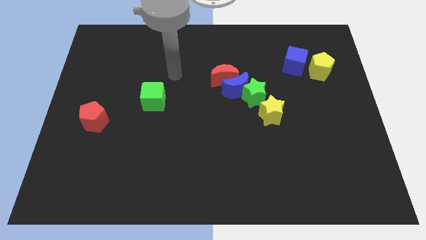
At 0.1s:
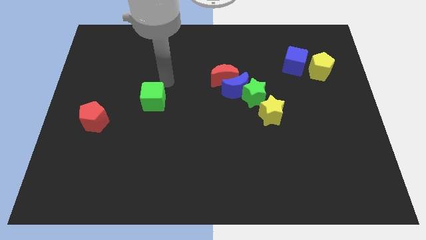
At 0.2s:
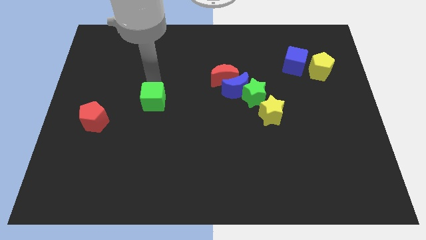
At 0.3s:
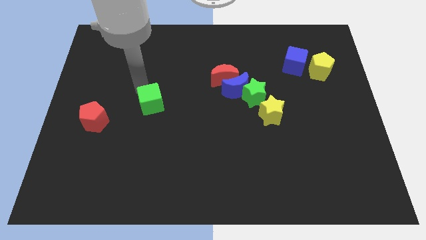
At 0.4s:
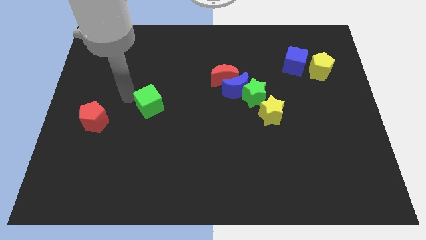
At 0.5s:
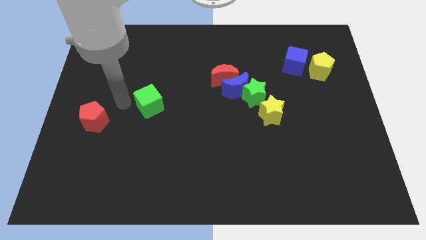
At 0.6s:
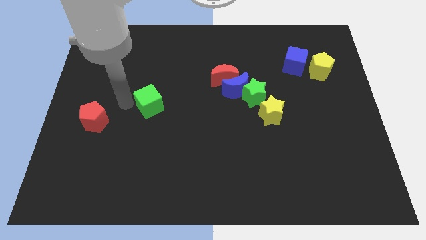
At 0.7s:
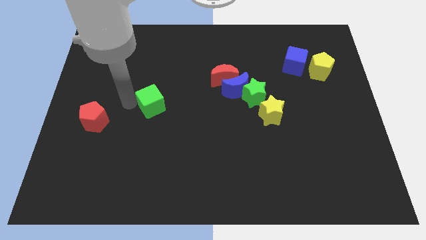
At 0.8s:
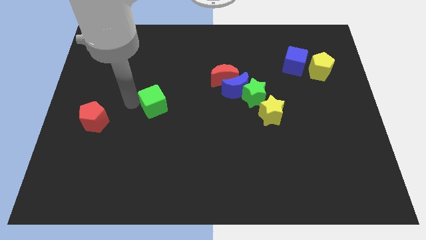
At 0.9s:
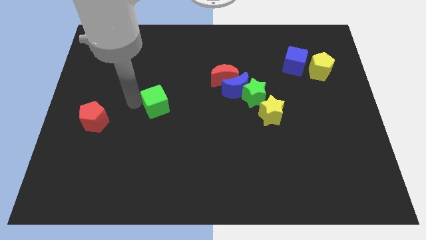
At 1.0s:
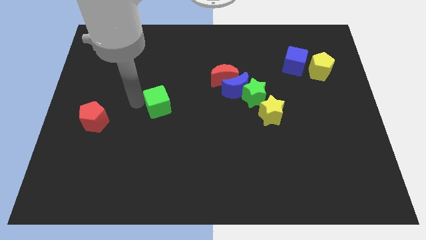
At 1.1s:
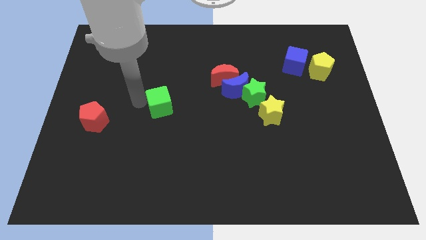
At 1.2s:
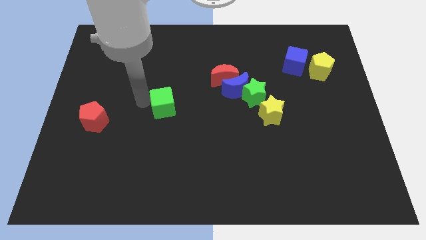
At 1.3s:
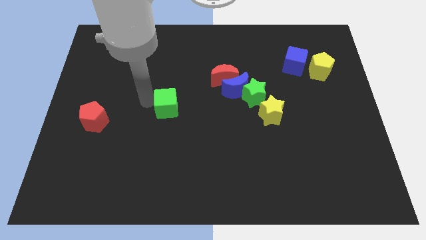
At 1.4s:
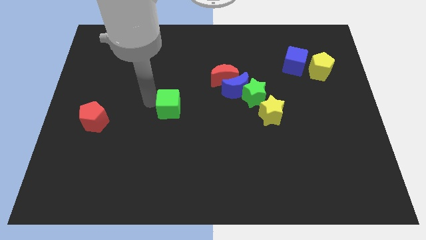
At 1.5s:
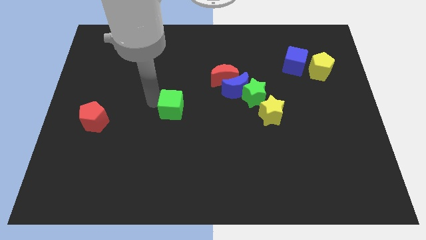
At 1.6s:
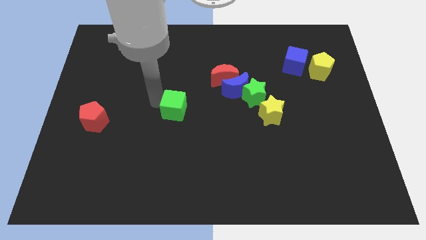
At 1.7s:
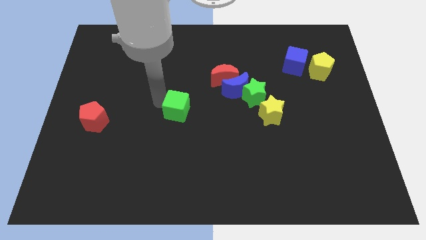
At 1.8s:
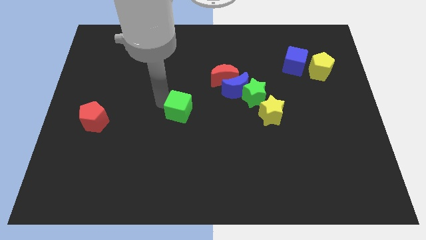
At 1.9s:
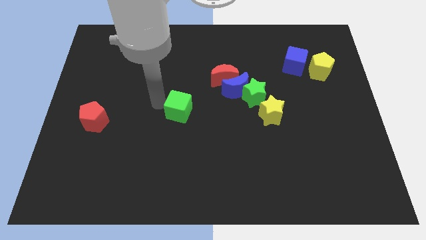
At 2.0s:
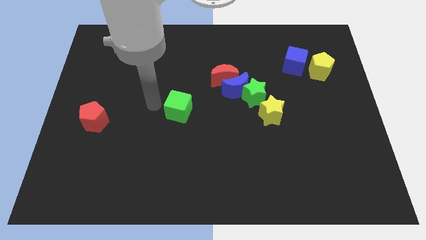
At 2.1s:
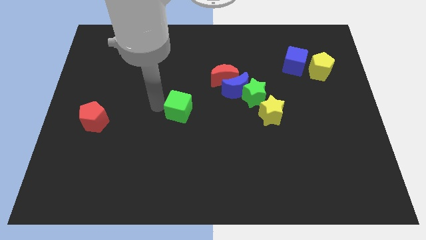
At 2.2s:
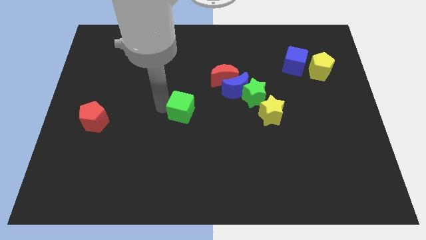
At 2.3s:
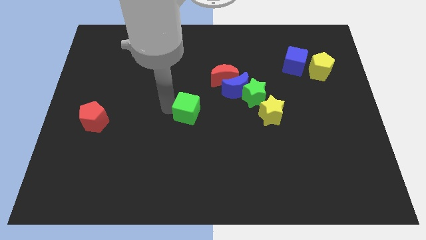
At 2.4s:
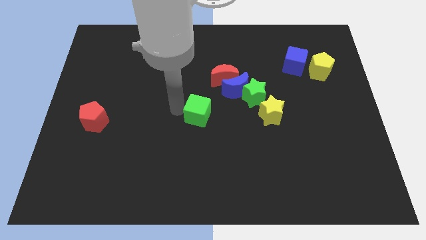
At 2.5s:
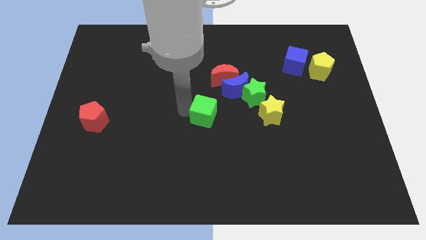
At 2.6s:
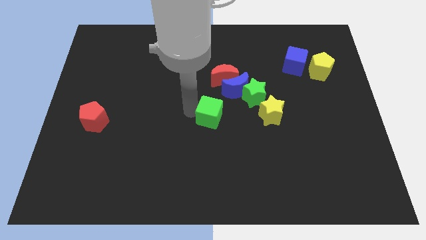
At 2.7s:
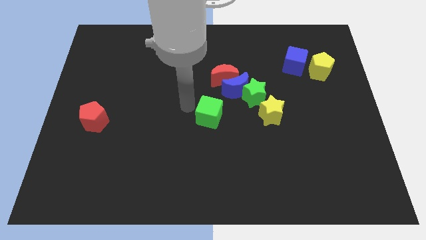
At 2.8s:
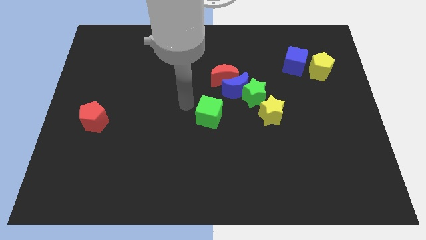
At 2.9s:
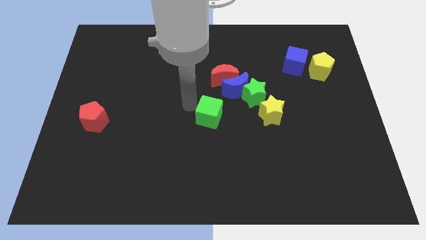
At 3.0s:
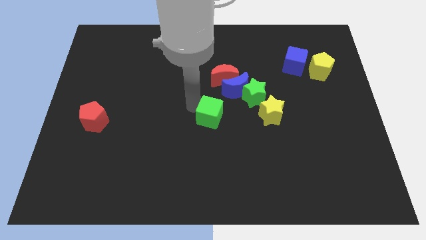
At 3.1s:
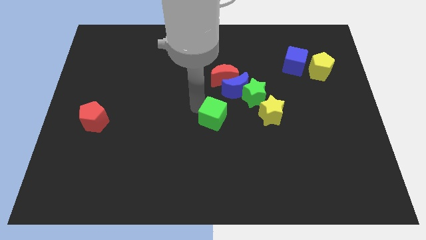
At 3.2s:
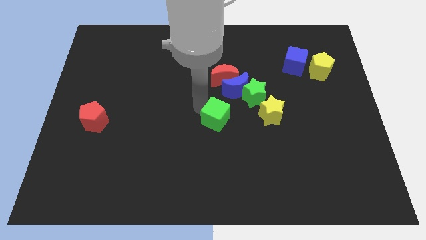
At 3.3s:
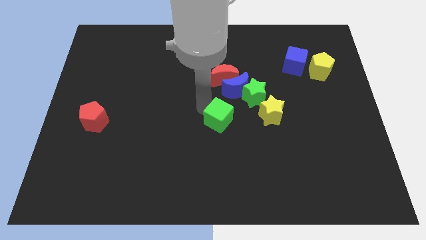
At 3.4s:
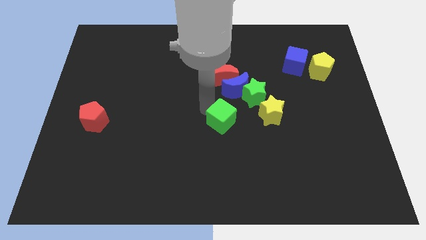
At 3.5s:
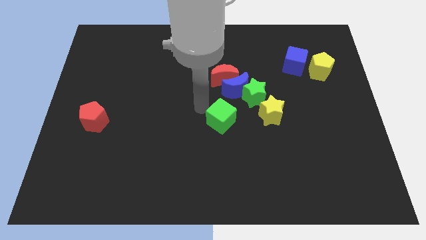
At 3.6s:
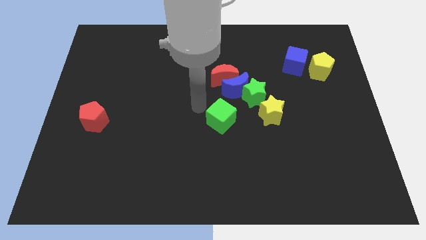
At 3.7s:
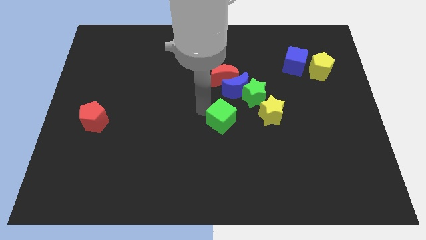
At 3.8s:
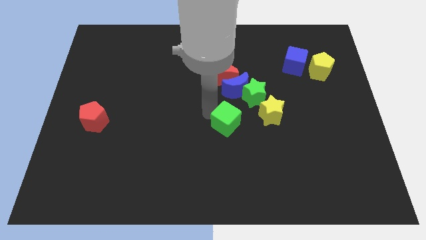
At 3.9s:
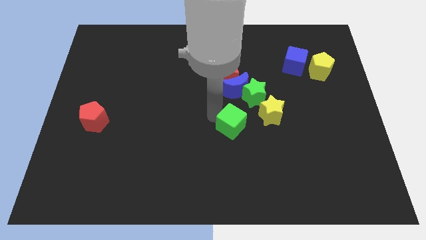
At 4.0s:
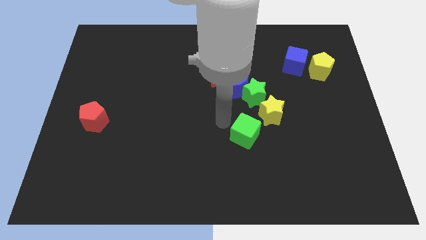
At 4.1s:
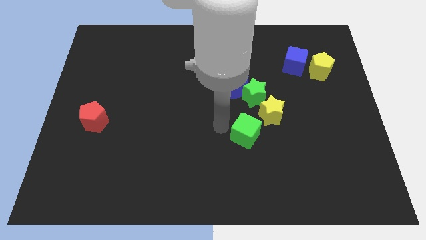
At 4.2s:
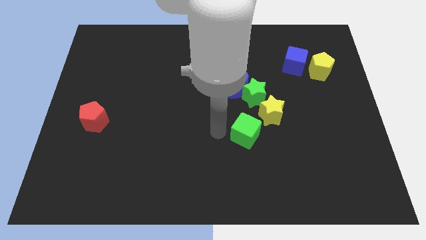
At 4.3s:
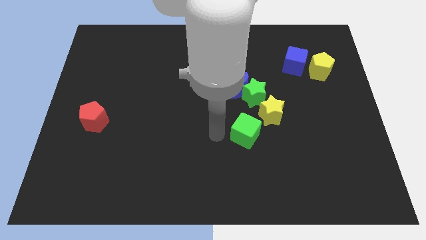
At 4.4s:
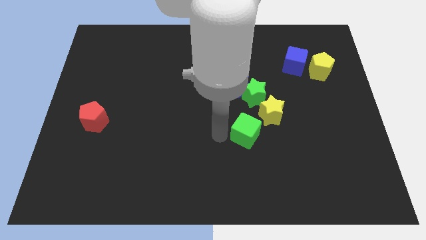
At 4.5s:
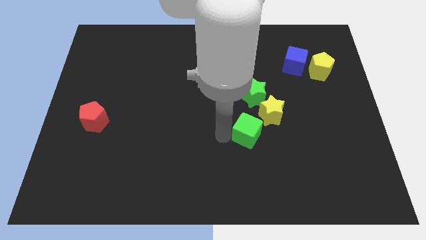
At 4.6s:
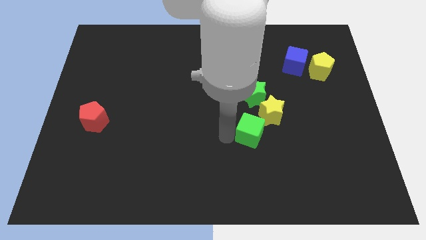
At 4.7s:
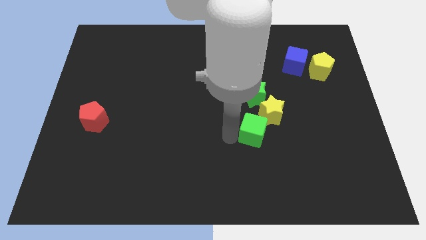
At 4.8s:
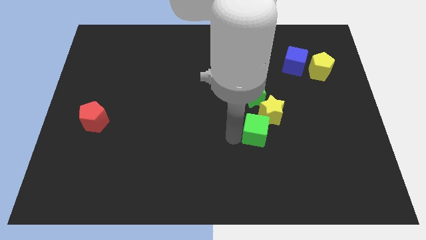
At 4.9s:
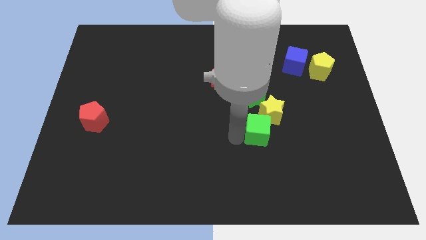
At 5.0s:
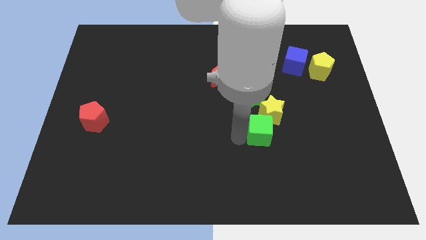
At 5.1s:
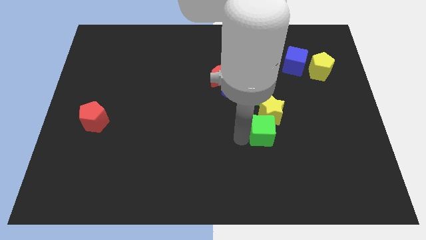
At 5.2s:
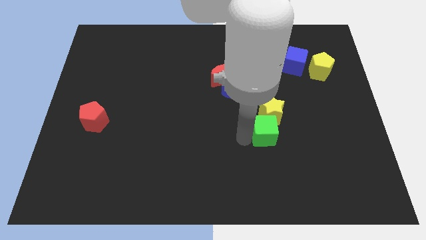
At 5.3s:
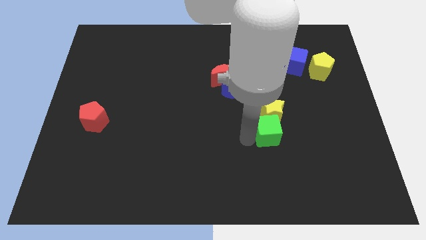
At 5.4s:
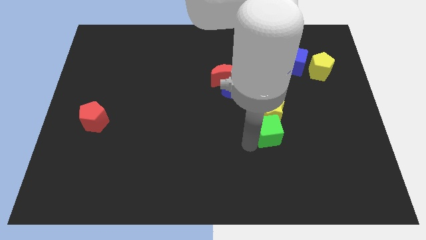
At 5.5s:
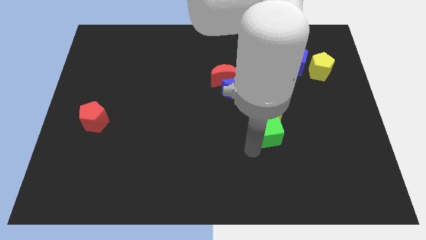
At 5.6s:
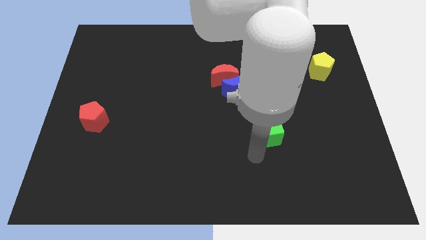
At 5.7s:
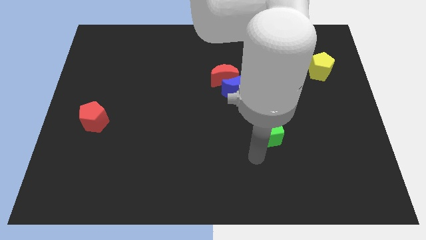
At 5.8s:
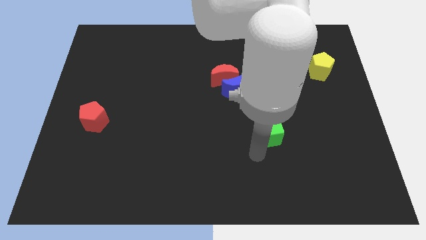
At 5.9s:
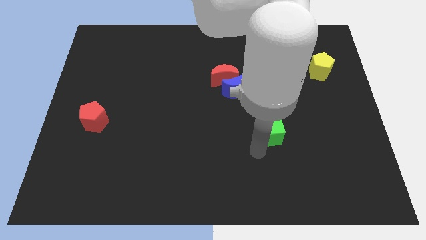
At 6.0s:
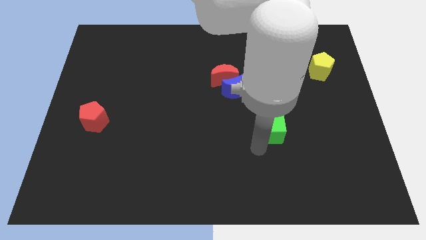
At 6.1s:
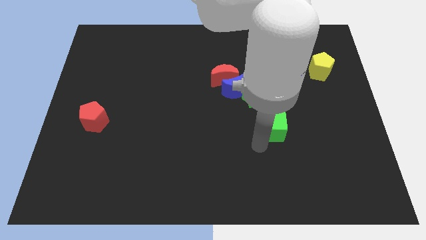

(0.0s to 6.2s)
move the green cube diagonally down and to the right of the green star

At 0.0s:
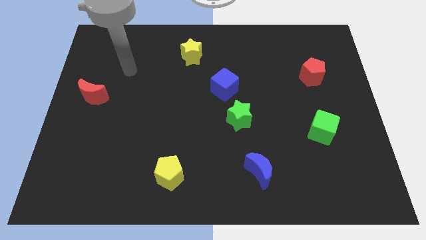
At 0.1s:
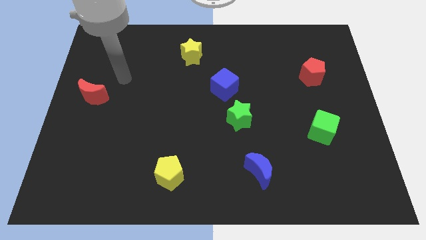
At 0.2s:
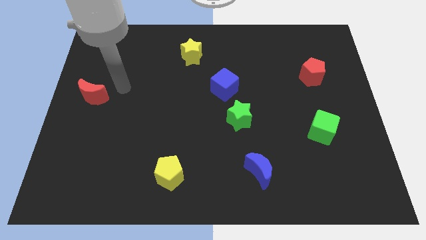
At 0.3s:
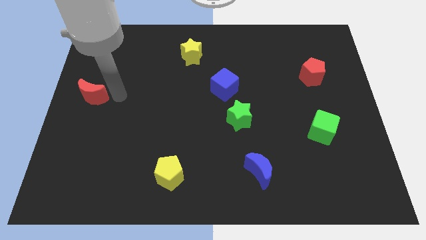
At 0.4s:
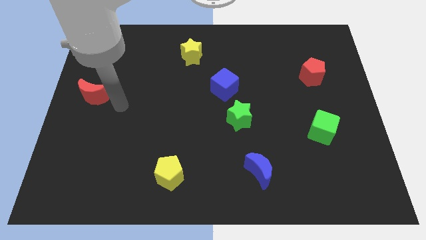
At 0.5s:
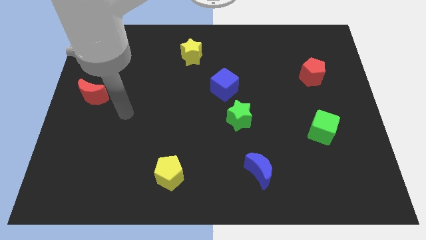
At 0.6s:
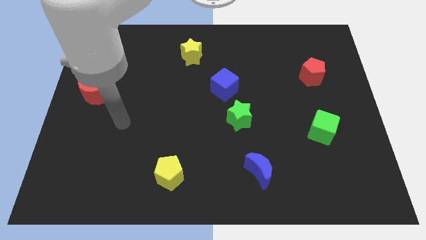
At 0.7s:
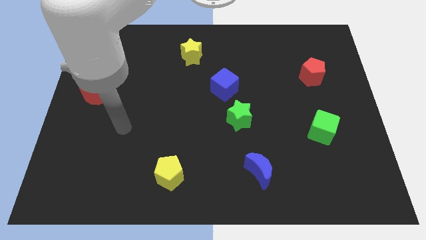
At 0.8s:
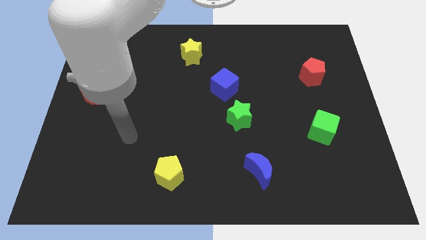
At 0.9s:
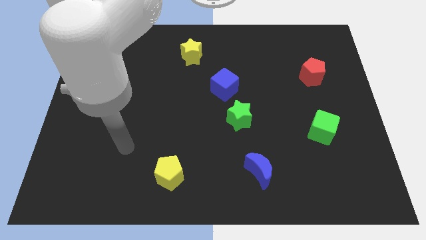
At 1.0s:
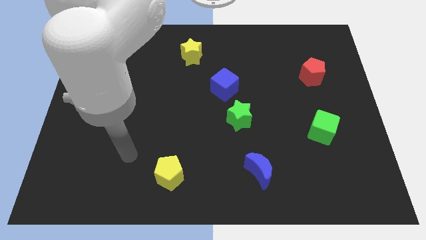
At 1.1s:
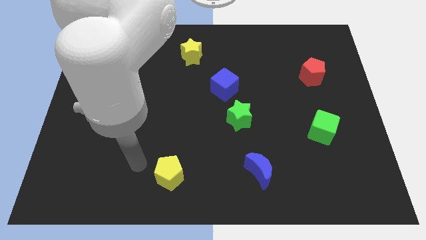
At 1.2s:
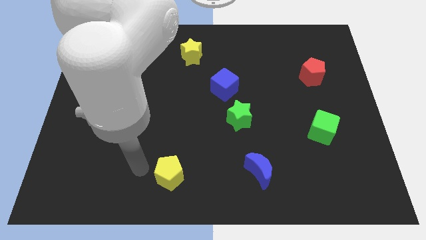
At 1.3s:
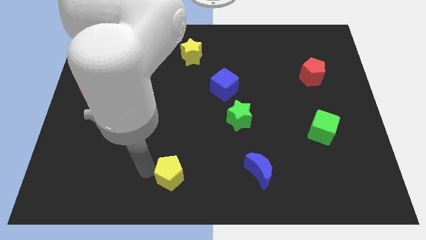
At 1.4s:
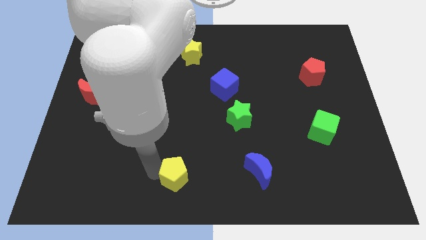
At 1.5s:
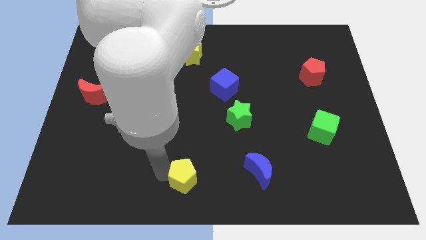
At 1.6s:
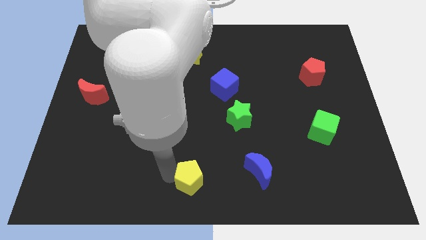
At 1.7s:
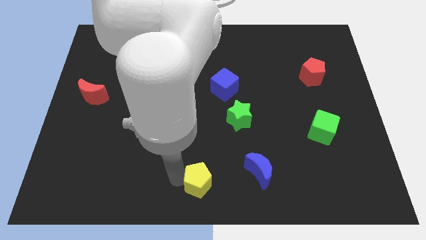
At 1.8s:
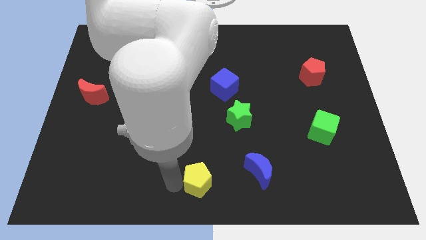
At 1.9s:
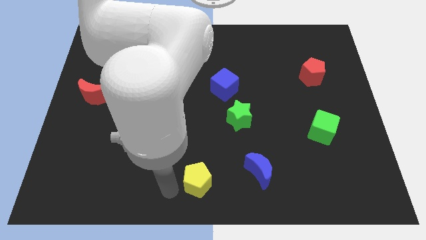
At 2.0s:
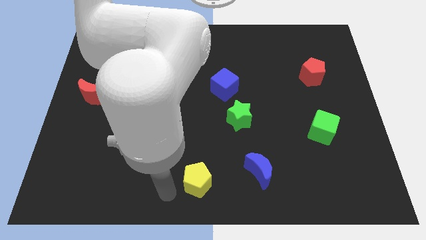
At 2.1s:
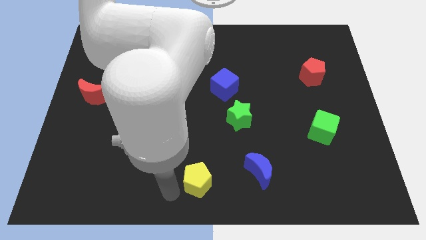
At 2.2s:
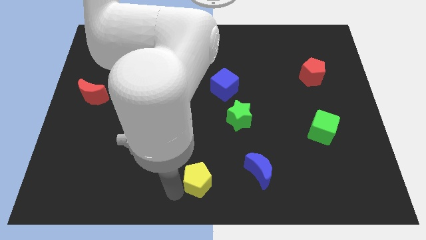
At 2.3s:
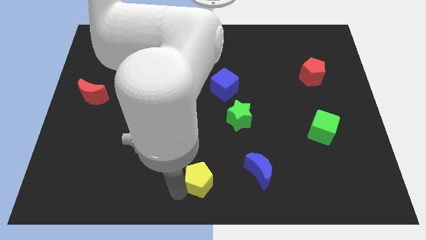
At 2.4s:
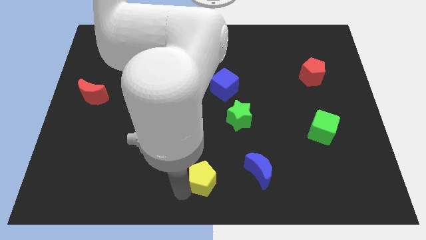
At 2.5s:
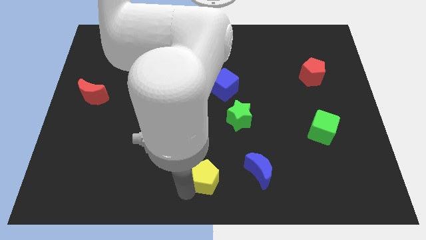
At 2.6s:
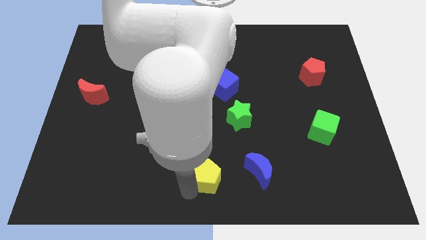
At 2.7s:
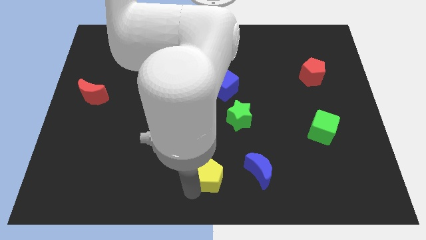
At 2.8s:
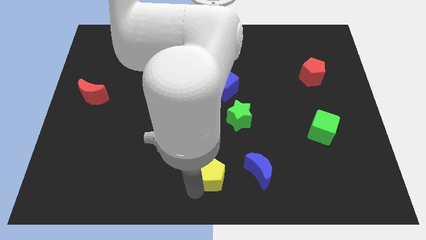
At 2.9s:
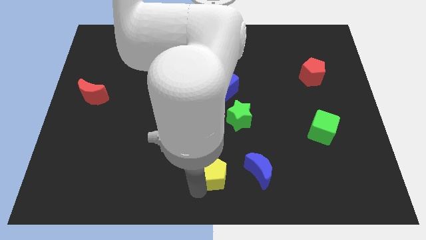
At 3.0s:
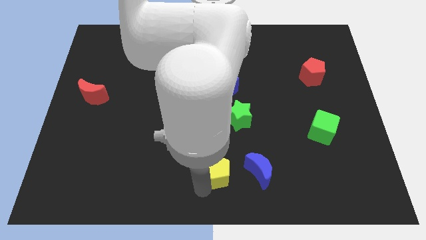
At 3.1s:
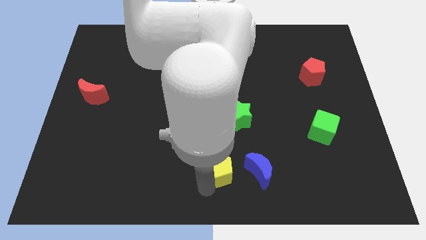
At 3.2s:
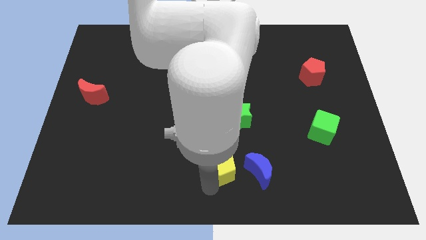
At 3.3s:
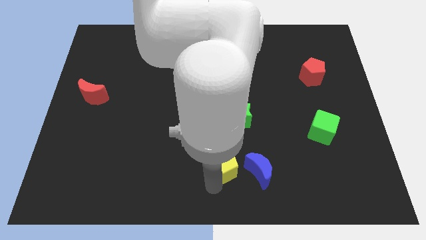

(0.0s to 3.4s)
slide the yellow pentagon diagonally up and to the left of the blue moon
